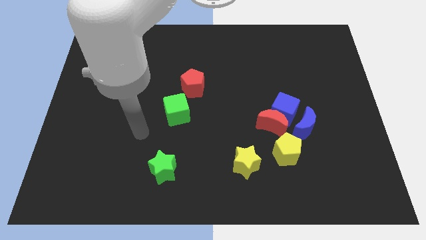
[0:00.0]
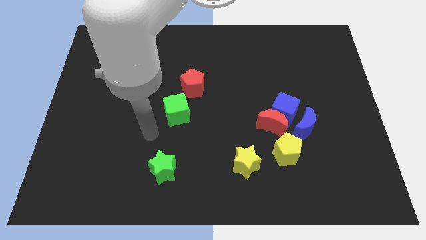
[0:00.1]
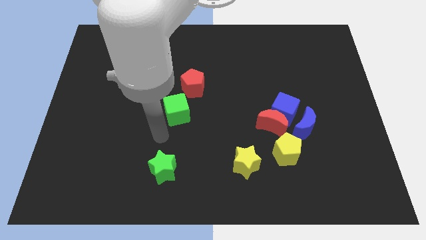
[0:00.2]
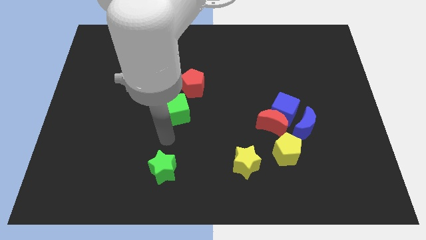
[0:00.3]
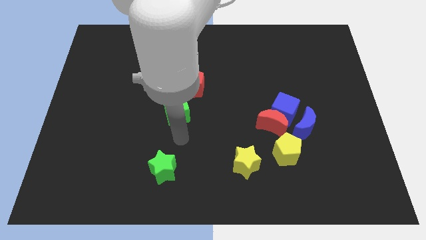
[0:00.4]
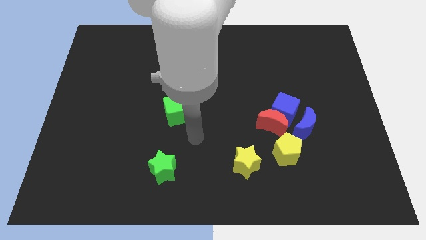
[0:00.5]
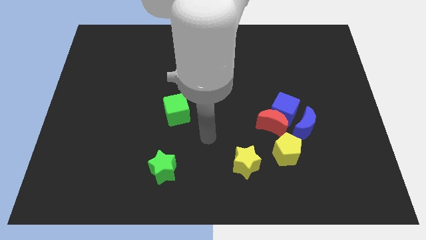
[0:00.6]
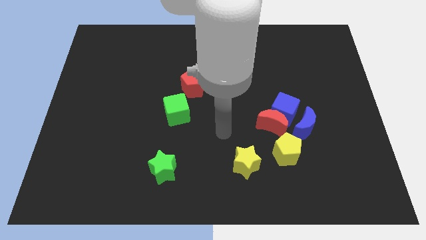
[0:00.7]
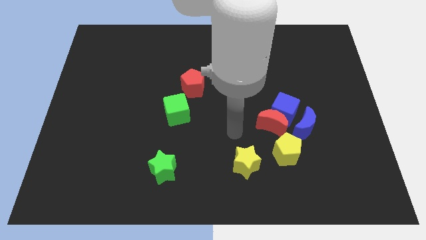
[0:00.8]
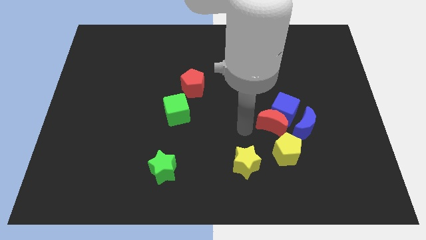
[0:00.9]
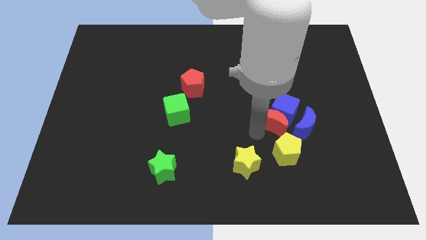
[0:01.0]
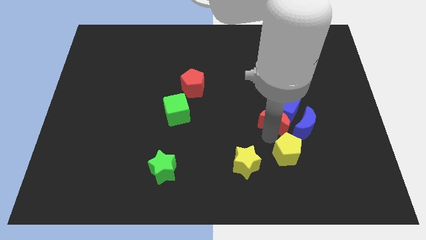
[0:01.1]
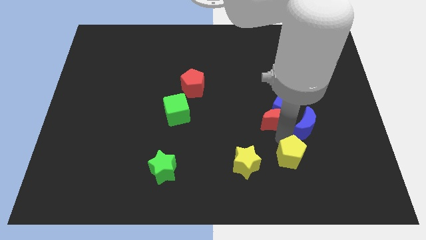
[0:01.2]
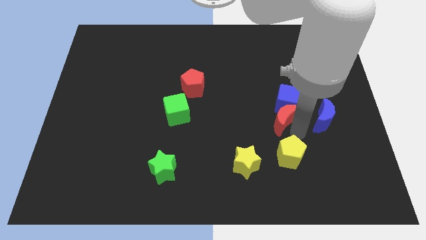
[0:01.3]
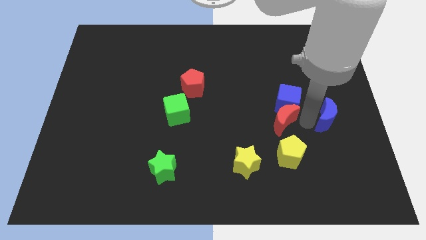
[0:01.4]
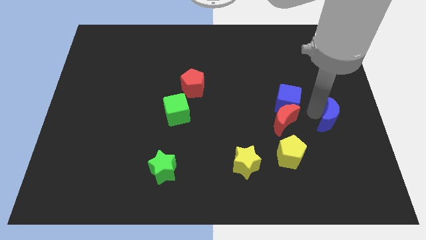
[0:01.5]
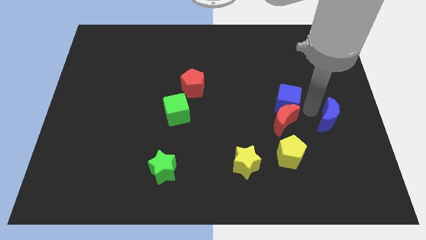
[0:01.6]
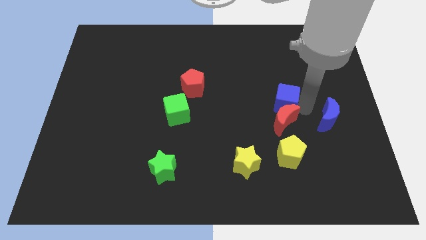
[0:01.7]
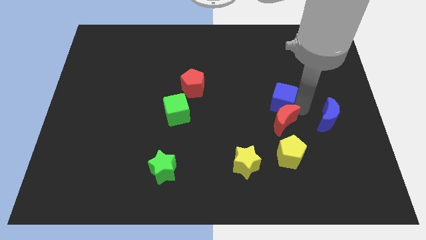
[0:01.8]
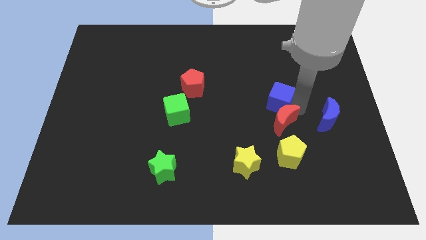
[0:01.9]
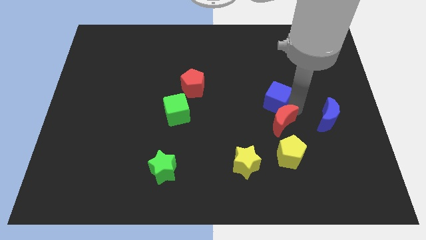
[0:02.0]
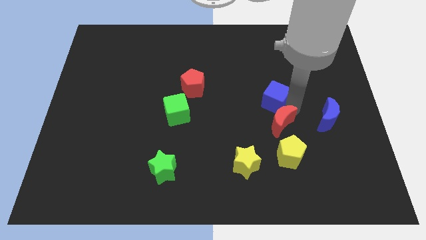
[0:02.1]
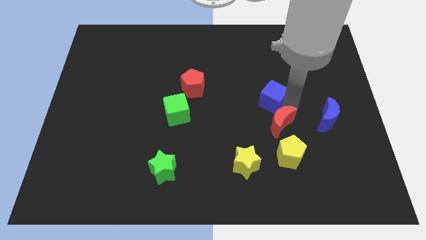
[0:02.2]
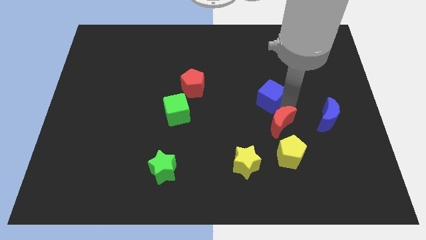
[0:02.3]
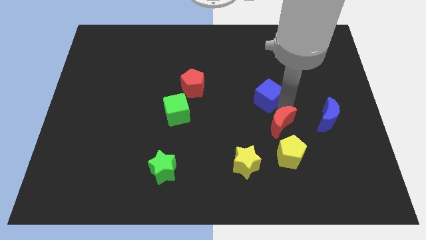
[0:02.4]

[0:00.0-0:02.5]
separate the blue cube from the red moon and blue moon

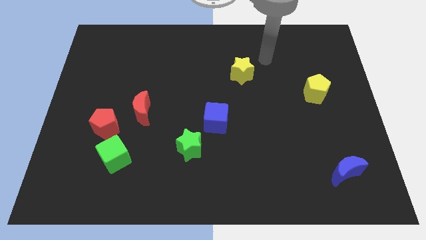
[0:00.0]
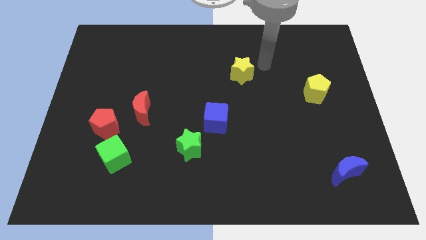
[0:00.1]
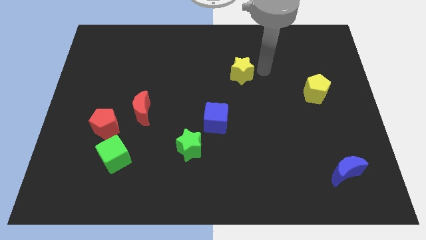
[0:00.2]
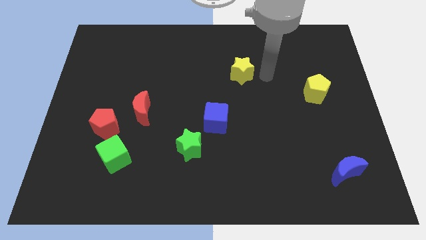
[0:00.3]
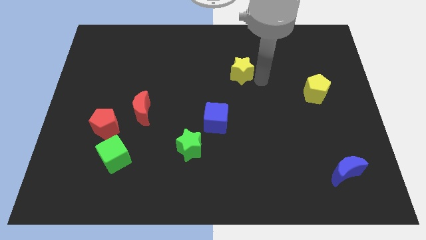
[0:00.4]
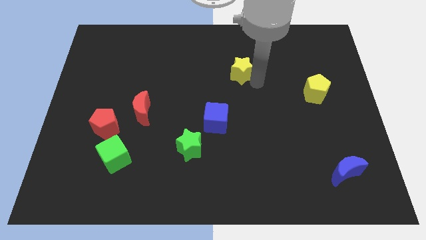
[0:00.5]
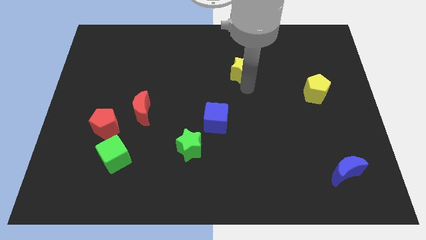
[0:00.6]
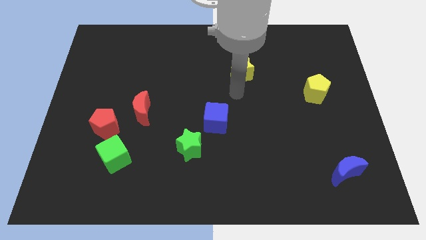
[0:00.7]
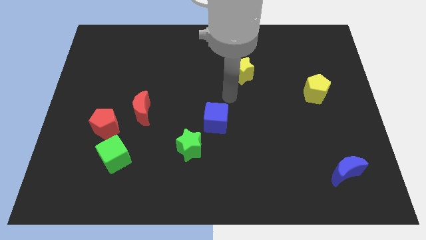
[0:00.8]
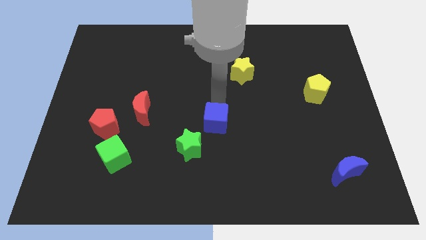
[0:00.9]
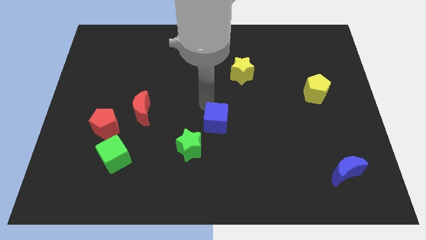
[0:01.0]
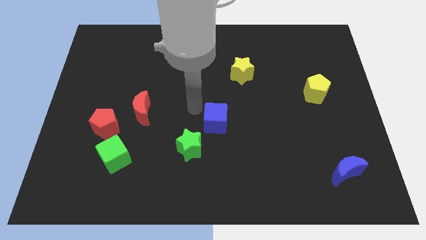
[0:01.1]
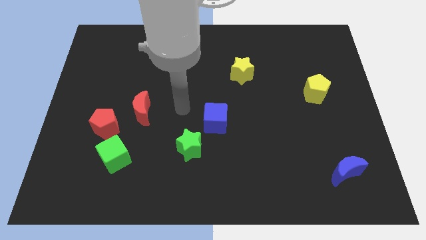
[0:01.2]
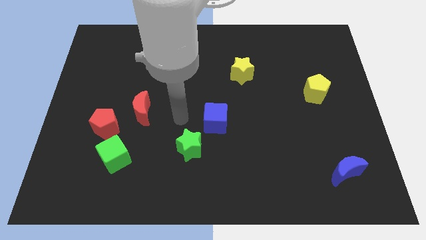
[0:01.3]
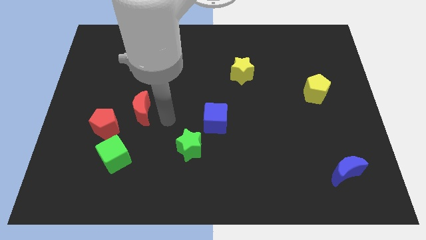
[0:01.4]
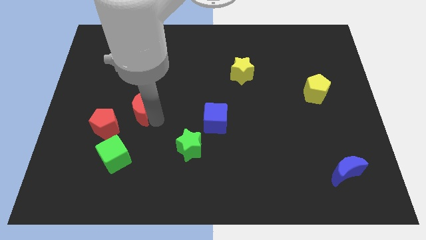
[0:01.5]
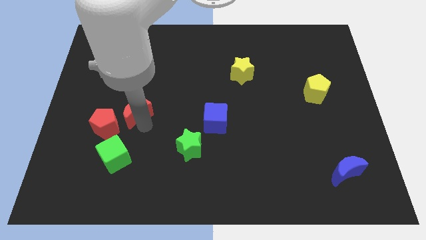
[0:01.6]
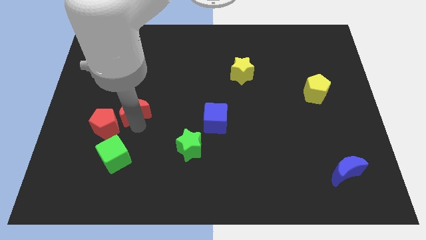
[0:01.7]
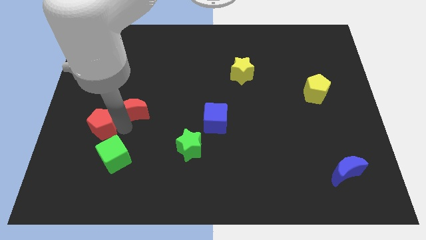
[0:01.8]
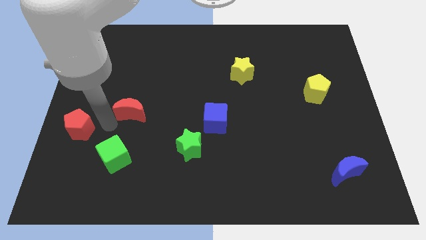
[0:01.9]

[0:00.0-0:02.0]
move the red moon away from the red pentagon

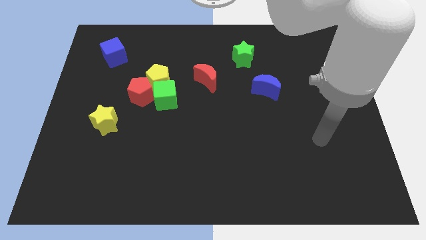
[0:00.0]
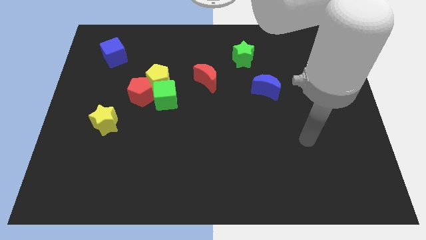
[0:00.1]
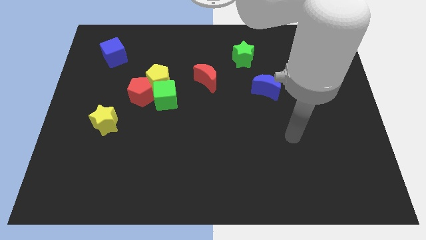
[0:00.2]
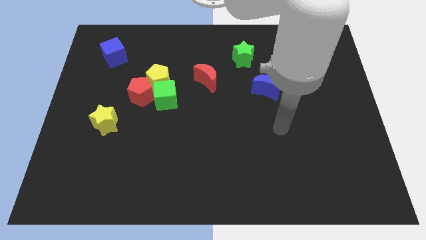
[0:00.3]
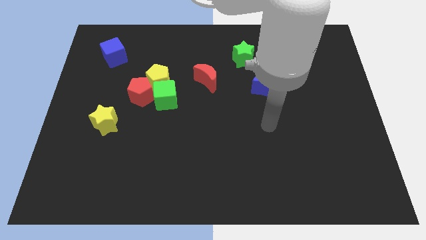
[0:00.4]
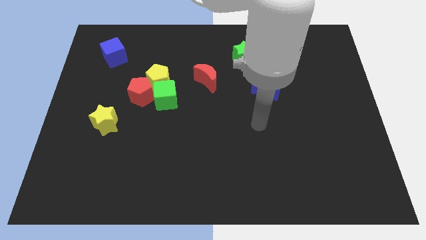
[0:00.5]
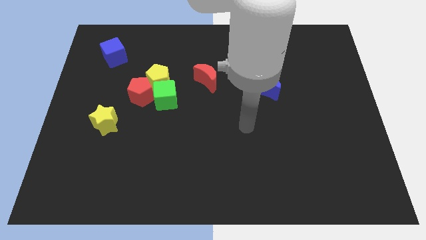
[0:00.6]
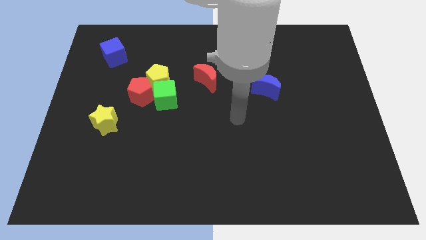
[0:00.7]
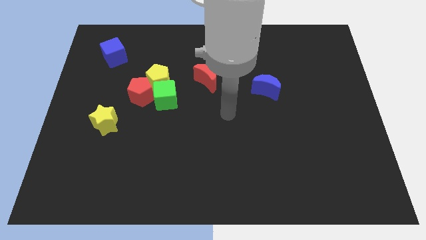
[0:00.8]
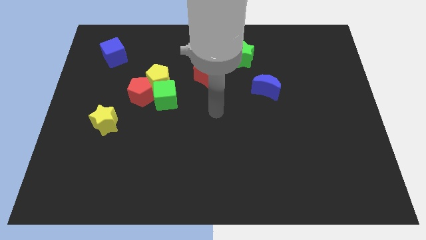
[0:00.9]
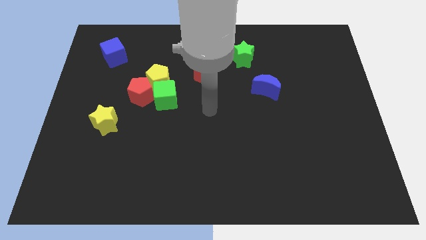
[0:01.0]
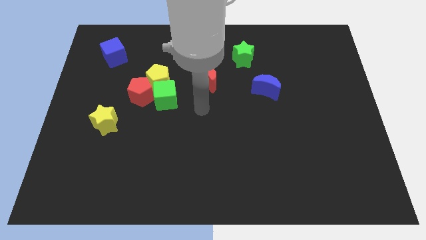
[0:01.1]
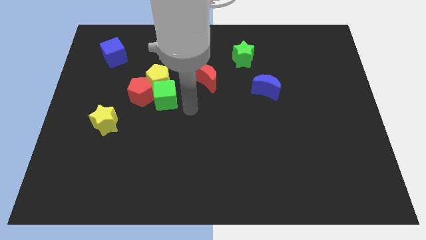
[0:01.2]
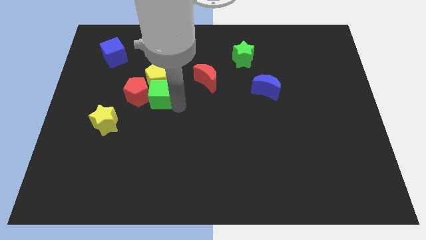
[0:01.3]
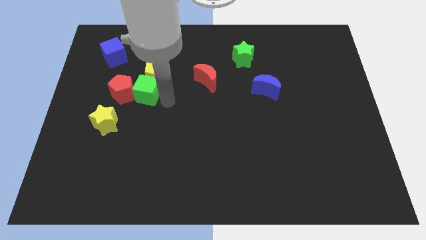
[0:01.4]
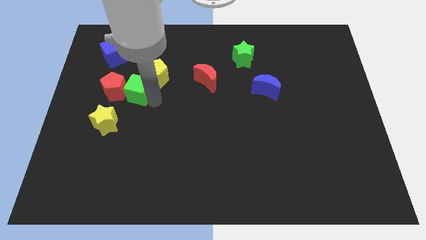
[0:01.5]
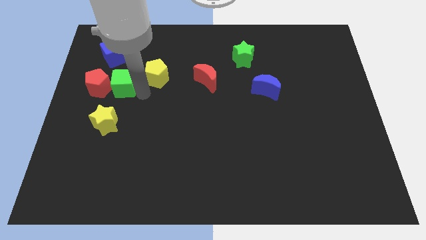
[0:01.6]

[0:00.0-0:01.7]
separate the yellow pentagon from the red pentagon and green cube

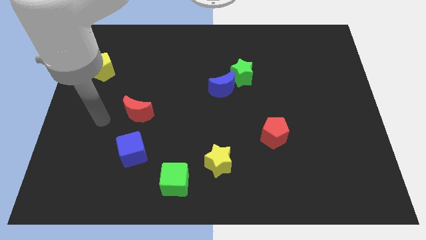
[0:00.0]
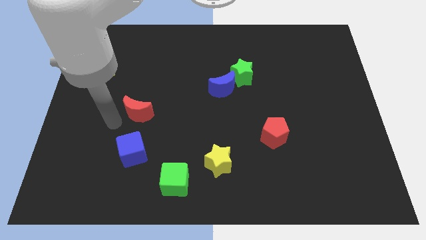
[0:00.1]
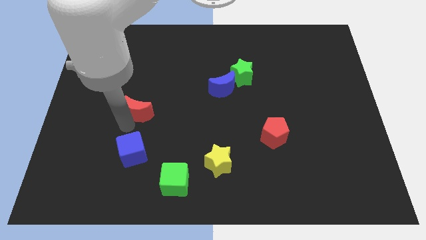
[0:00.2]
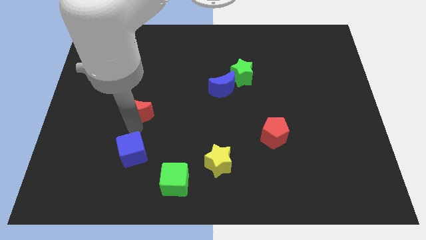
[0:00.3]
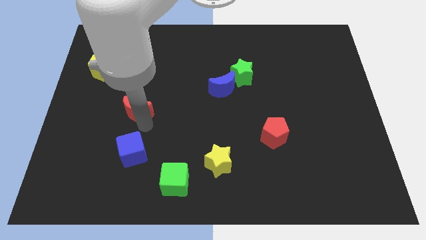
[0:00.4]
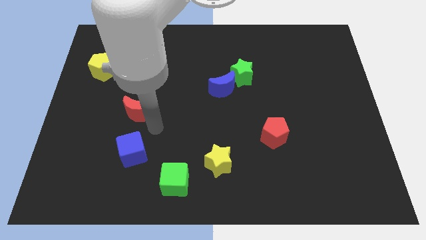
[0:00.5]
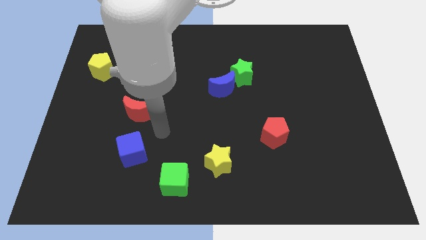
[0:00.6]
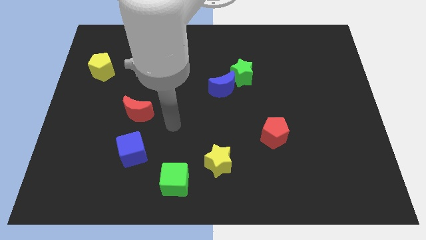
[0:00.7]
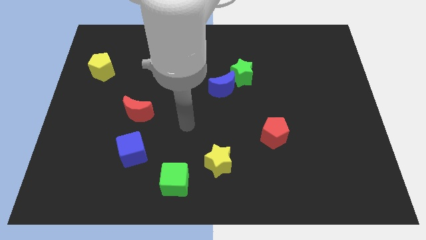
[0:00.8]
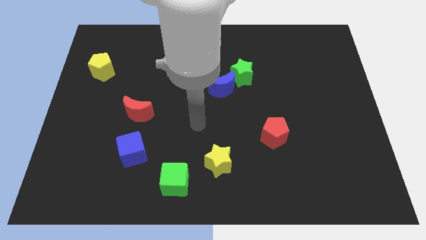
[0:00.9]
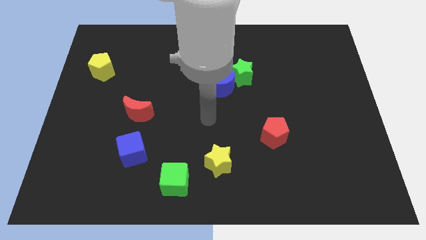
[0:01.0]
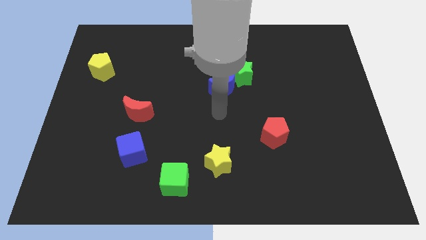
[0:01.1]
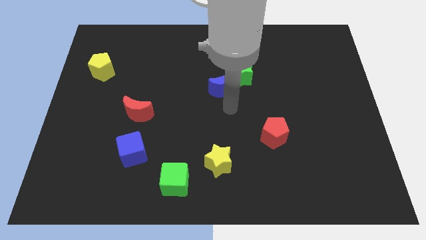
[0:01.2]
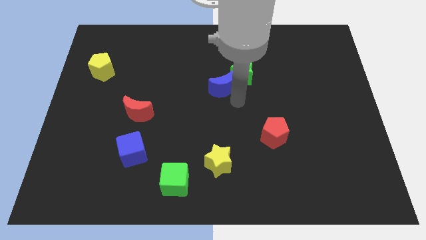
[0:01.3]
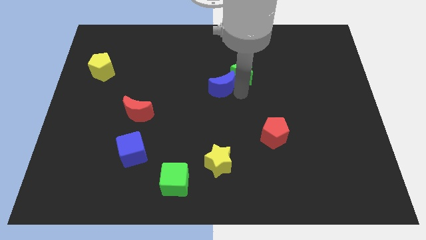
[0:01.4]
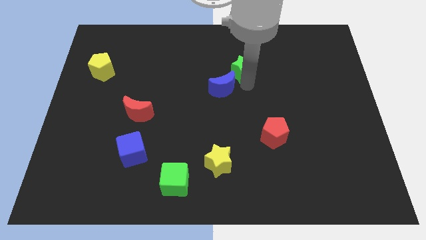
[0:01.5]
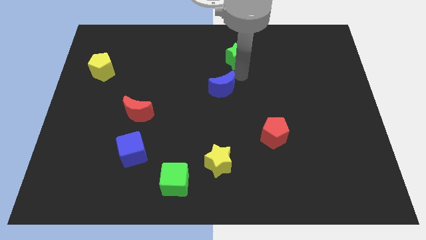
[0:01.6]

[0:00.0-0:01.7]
pull the blue moon apart from the green star

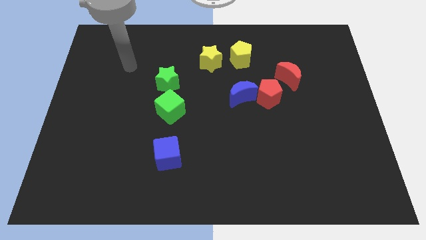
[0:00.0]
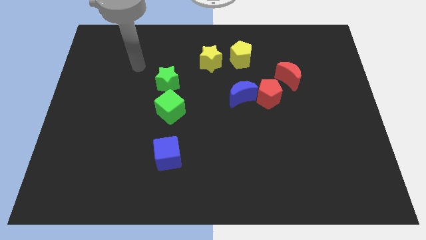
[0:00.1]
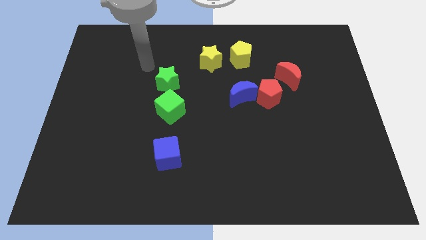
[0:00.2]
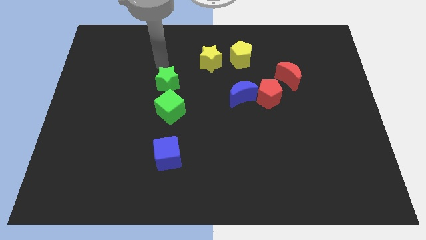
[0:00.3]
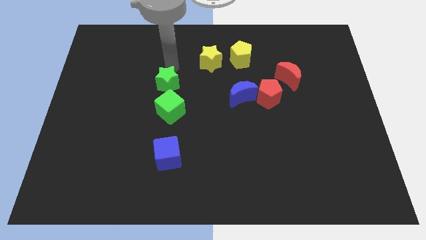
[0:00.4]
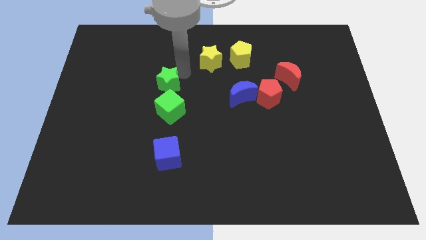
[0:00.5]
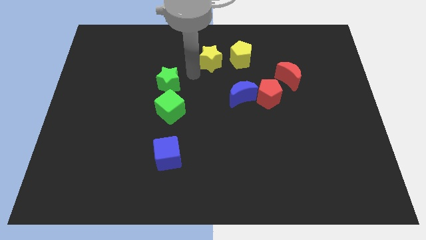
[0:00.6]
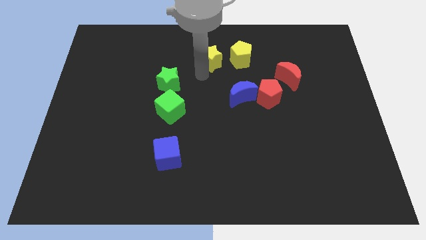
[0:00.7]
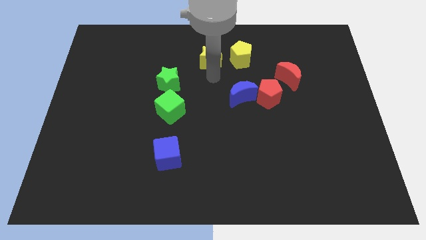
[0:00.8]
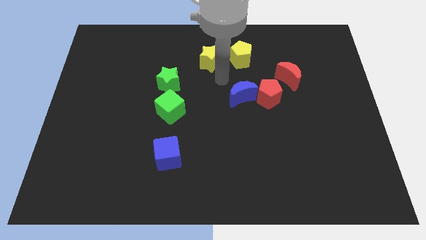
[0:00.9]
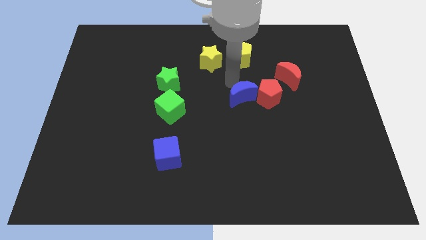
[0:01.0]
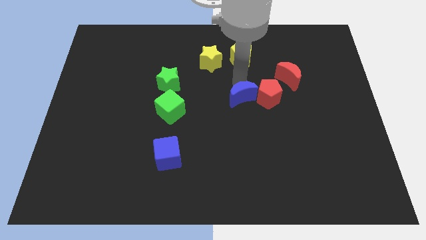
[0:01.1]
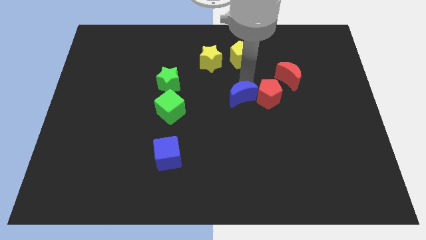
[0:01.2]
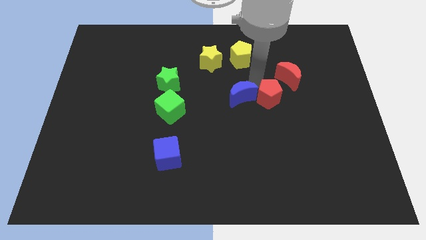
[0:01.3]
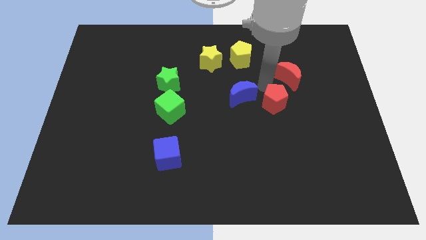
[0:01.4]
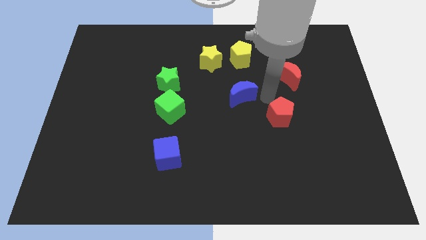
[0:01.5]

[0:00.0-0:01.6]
move the blue moon away from the red pentagon

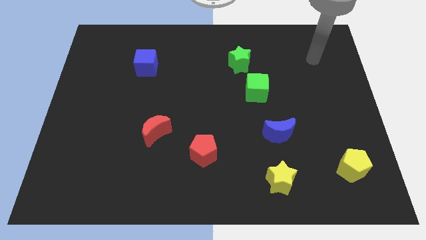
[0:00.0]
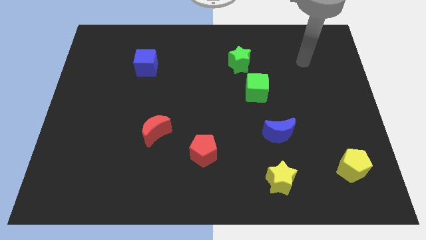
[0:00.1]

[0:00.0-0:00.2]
pull the green cube apart from the green star
